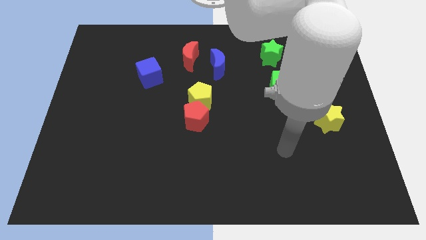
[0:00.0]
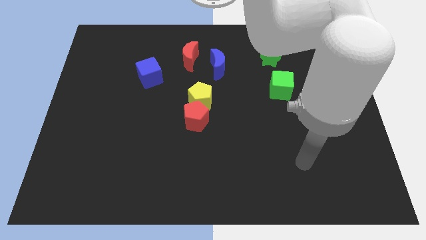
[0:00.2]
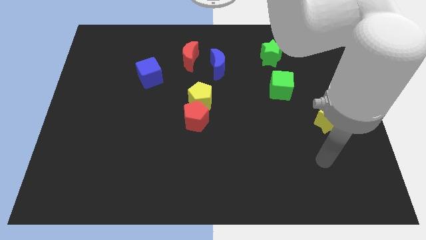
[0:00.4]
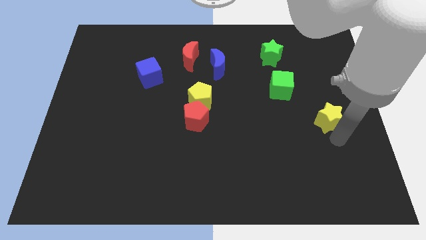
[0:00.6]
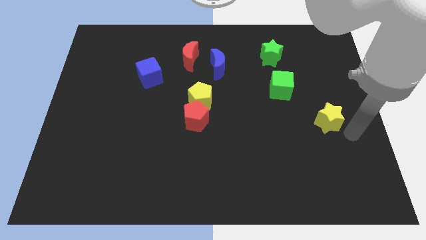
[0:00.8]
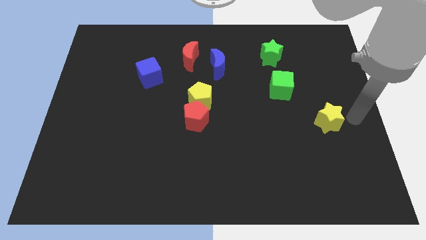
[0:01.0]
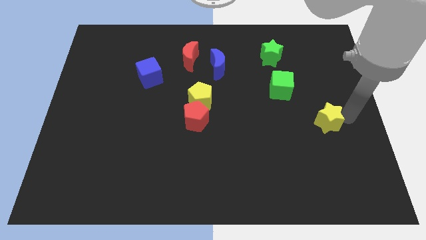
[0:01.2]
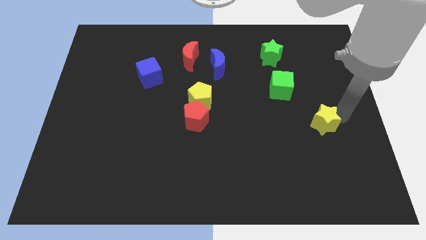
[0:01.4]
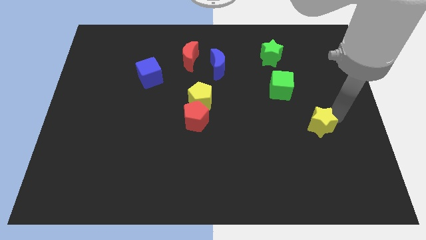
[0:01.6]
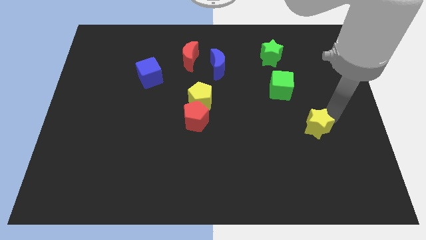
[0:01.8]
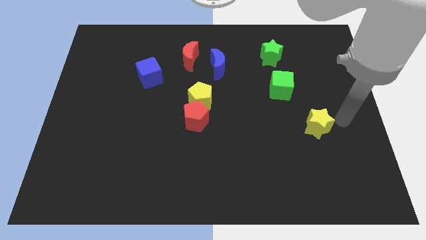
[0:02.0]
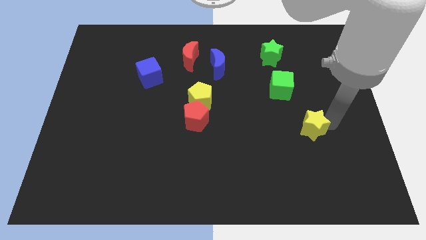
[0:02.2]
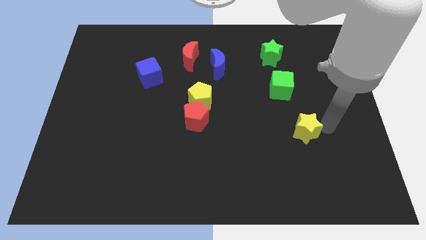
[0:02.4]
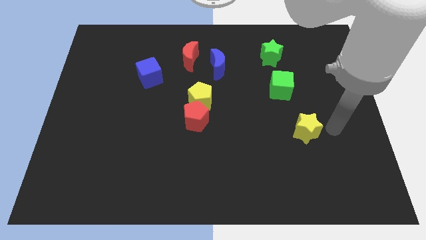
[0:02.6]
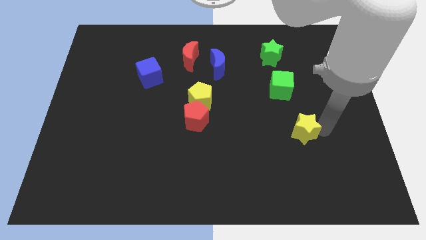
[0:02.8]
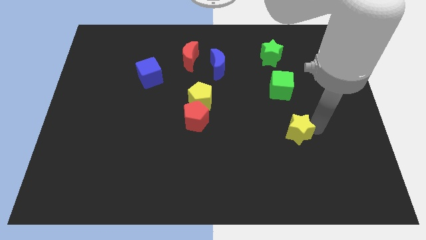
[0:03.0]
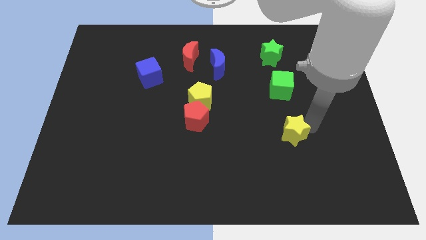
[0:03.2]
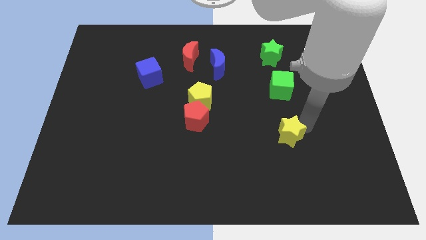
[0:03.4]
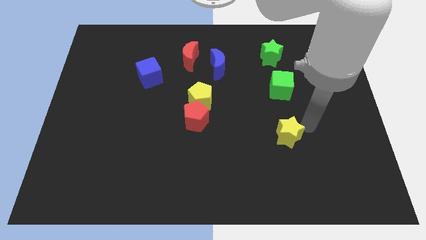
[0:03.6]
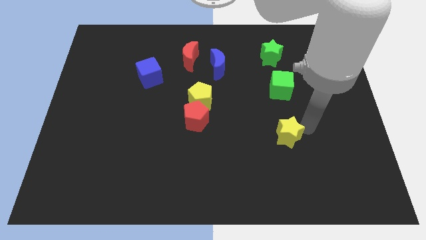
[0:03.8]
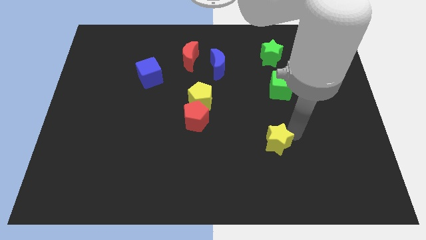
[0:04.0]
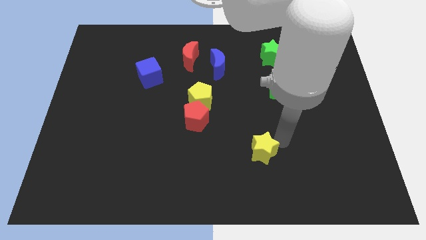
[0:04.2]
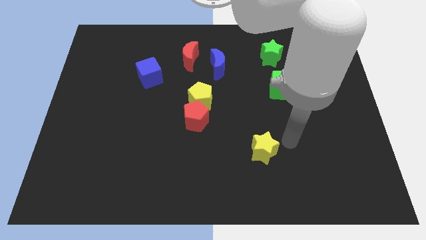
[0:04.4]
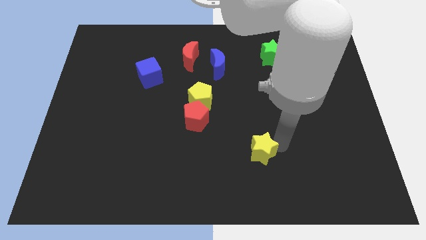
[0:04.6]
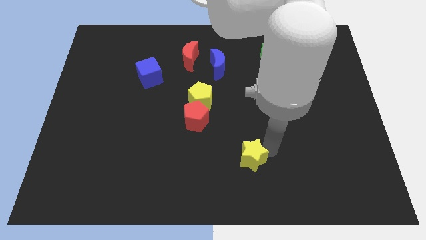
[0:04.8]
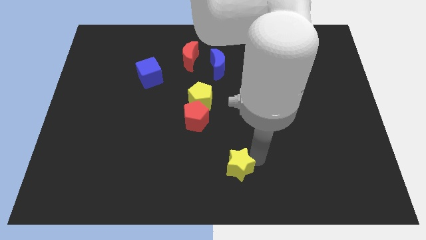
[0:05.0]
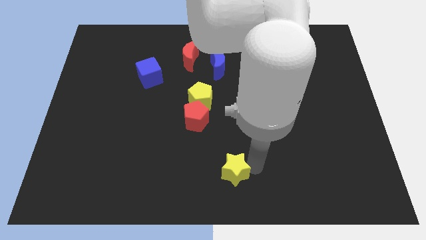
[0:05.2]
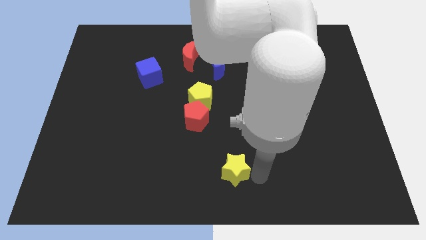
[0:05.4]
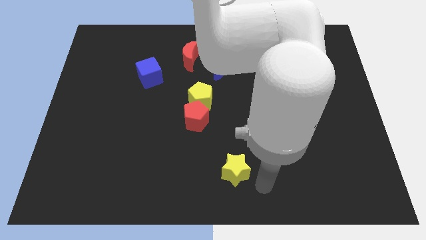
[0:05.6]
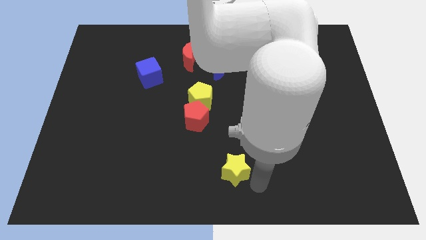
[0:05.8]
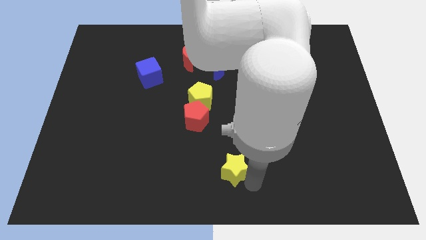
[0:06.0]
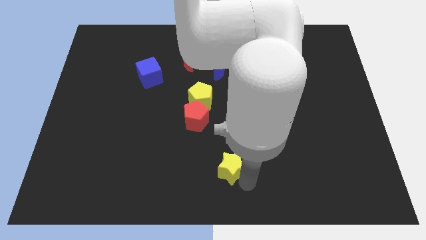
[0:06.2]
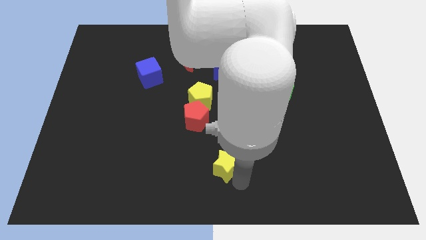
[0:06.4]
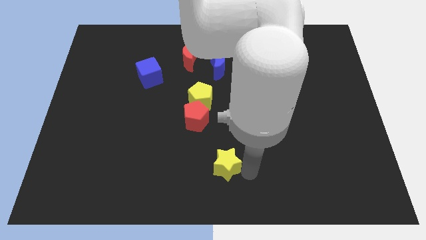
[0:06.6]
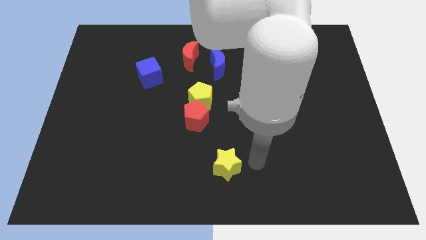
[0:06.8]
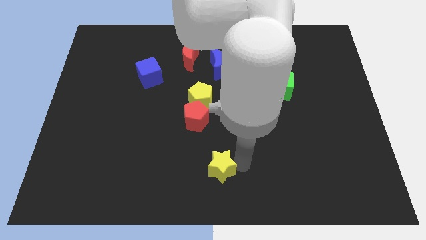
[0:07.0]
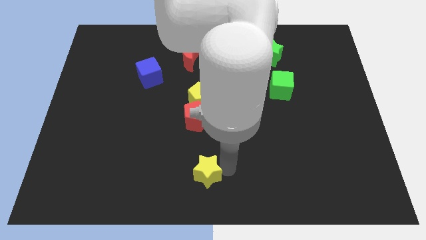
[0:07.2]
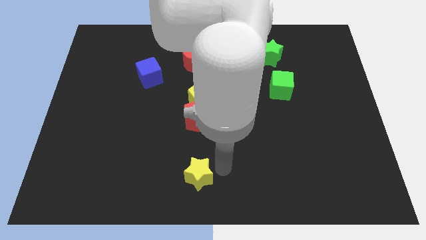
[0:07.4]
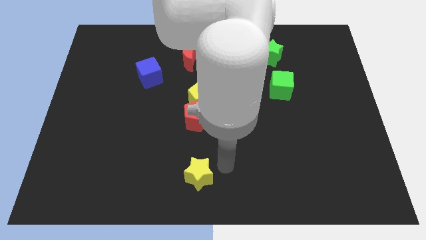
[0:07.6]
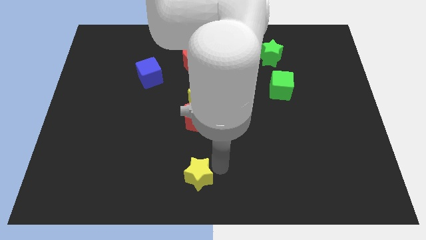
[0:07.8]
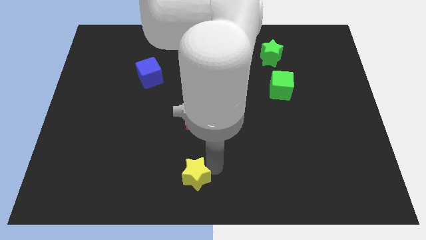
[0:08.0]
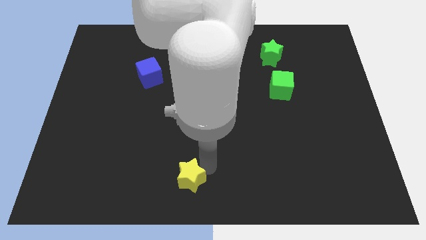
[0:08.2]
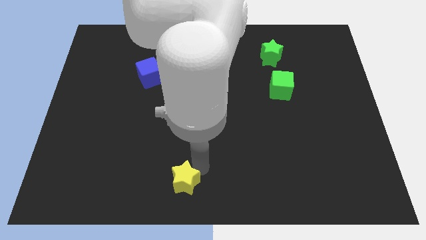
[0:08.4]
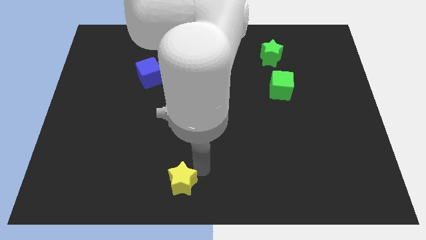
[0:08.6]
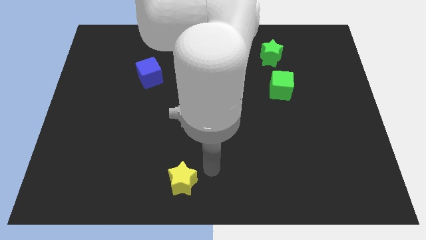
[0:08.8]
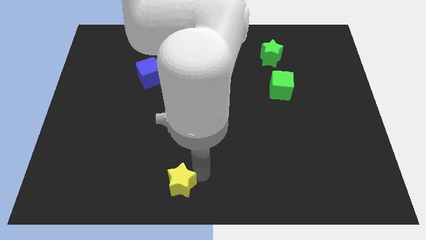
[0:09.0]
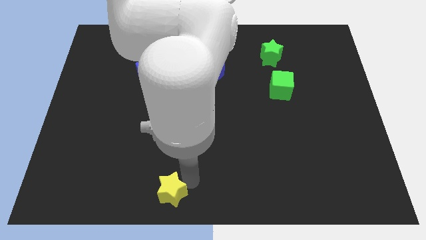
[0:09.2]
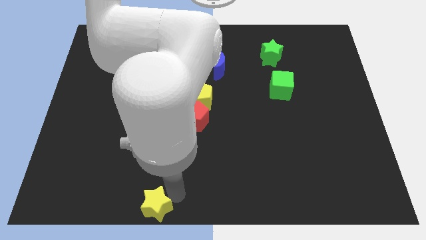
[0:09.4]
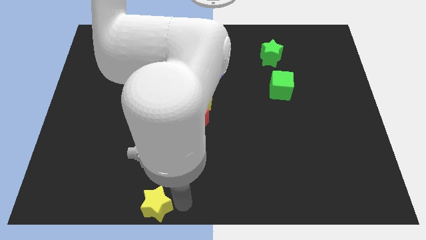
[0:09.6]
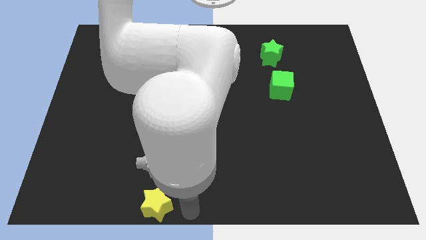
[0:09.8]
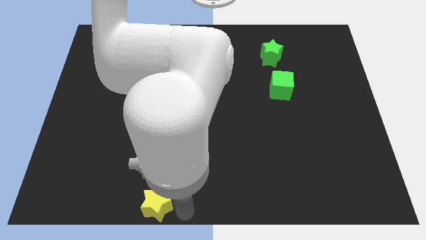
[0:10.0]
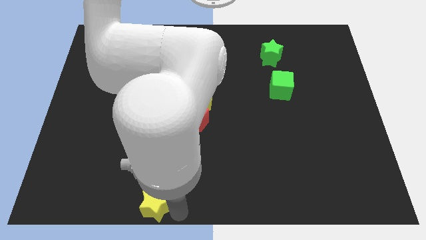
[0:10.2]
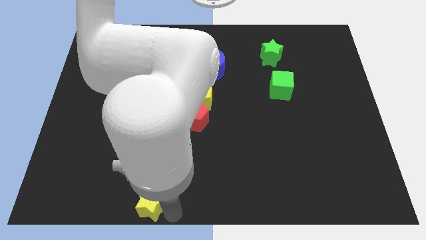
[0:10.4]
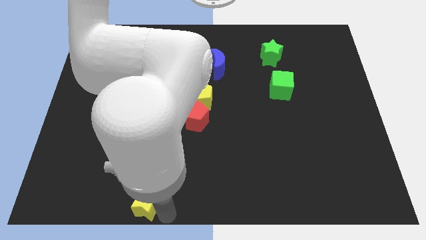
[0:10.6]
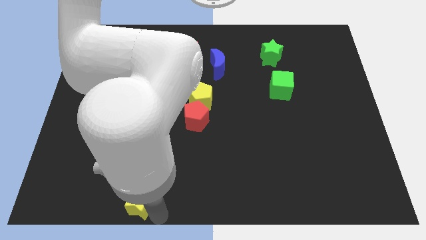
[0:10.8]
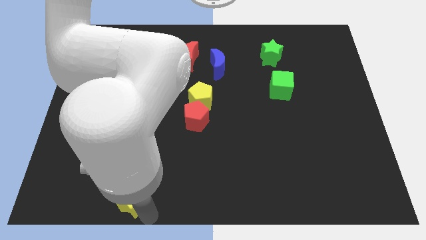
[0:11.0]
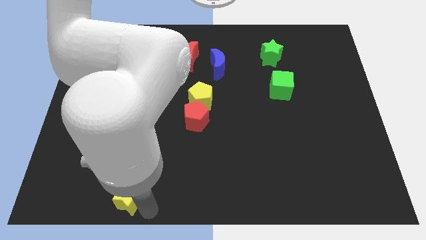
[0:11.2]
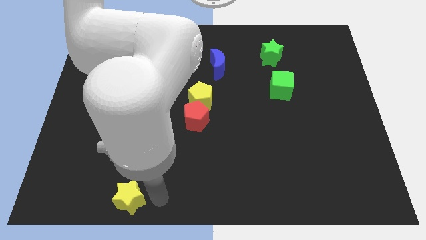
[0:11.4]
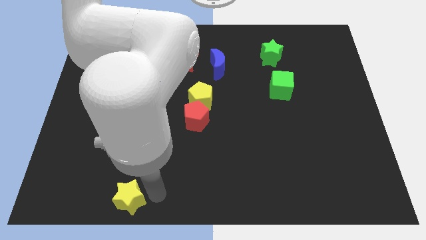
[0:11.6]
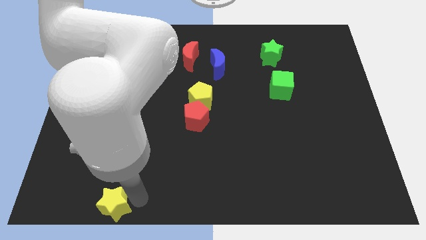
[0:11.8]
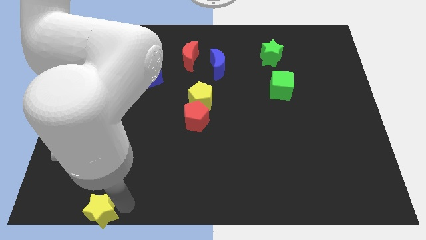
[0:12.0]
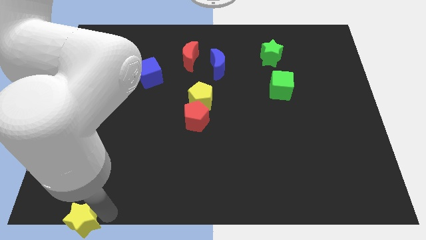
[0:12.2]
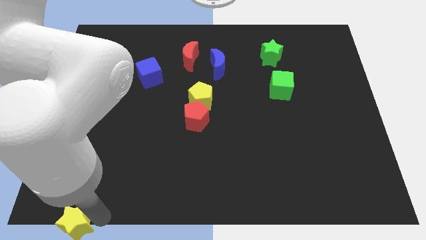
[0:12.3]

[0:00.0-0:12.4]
move the yellow star to the bottom left

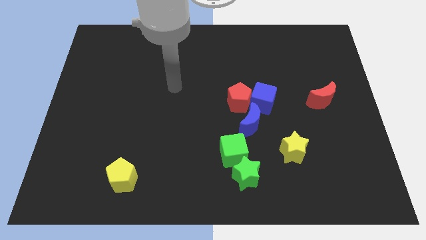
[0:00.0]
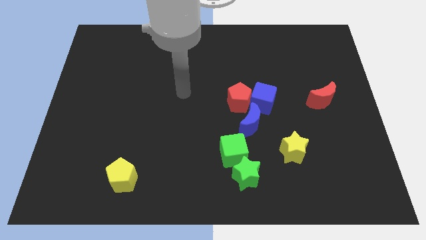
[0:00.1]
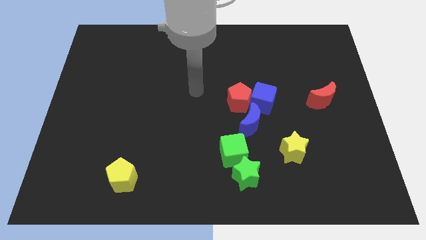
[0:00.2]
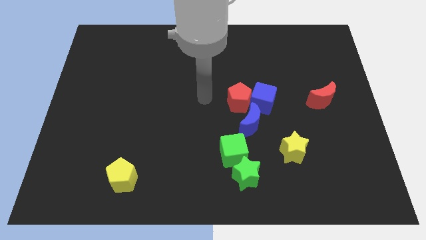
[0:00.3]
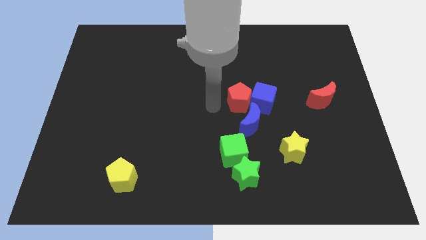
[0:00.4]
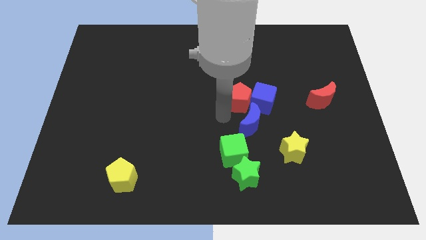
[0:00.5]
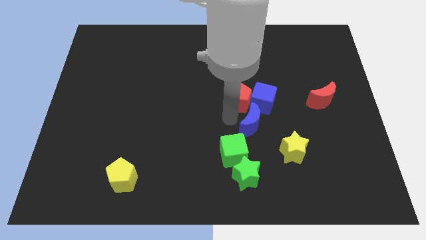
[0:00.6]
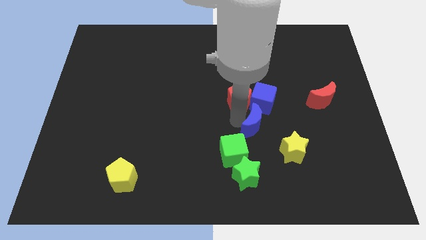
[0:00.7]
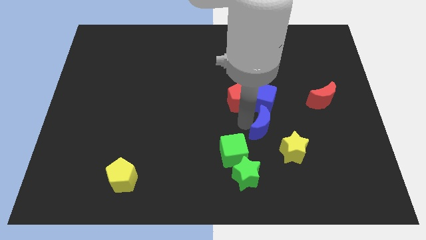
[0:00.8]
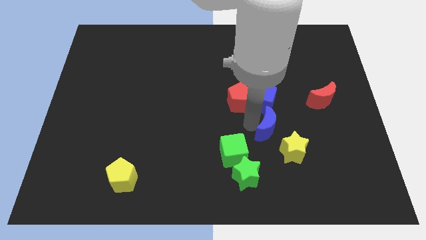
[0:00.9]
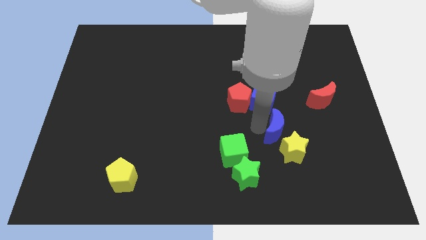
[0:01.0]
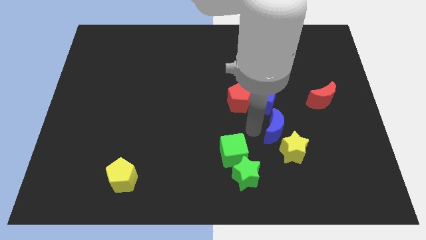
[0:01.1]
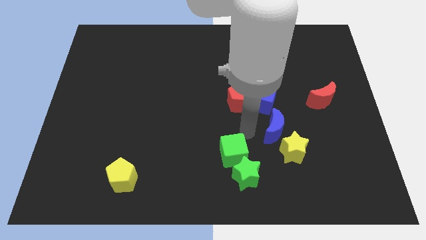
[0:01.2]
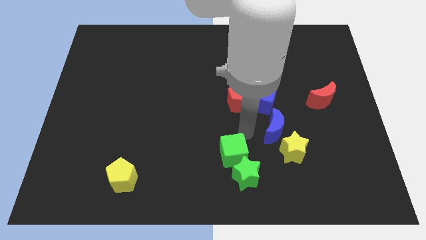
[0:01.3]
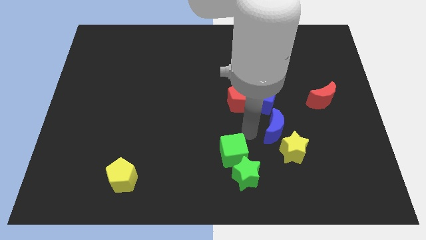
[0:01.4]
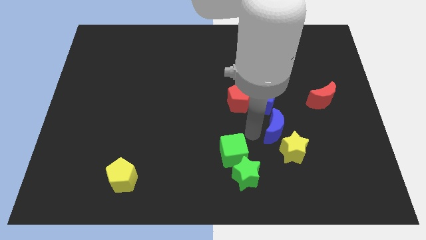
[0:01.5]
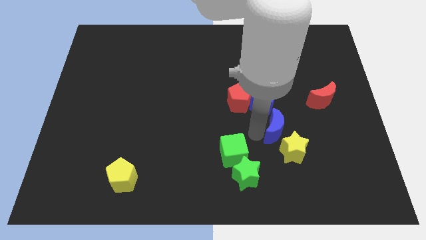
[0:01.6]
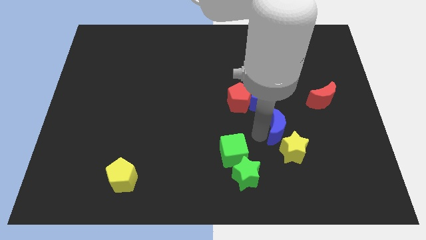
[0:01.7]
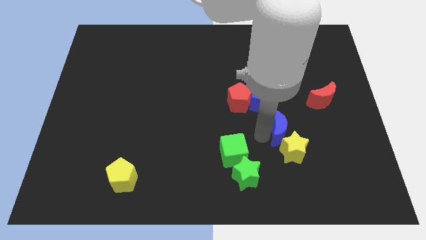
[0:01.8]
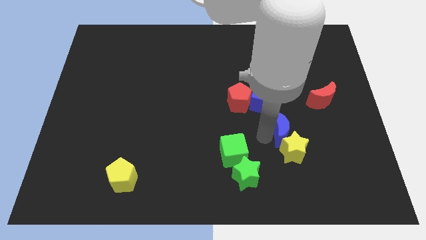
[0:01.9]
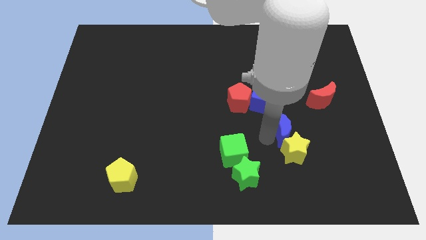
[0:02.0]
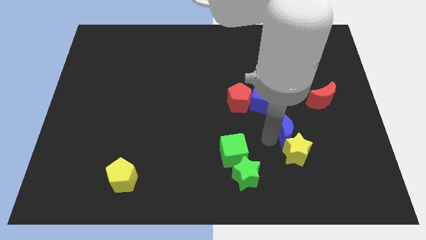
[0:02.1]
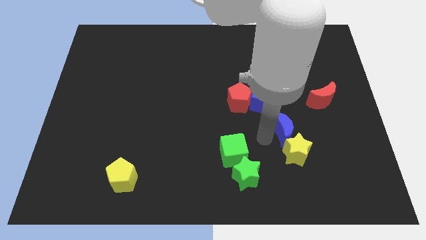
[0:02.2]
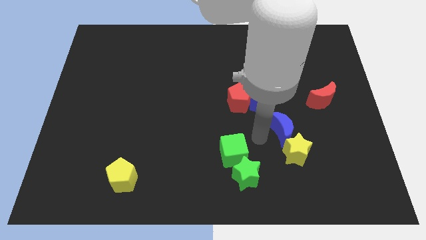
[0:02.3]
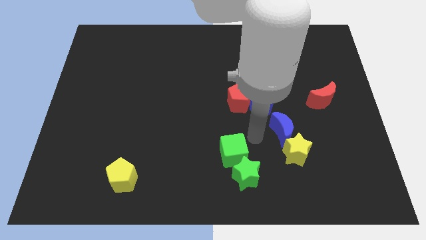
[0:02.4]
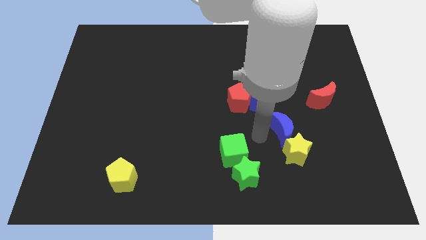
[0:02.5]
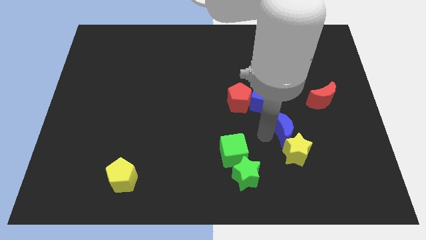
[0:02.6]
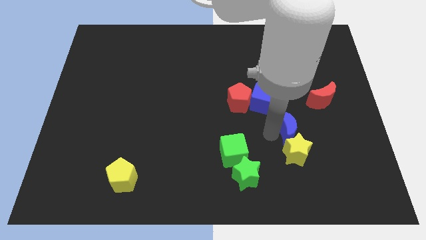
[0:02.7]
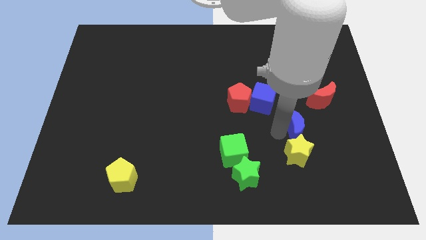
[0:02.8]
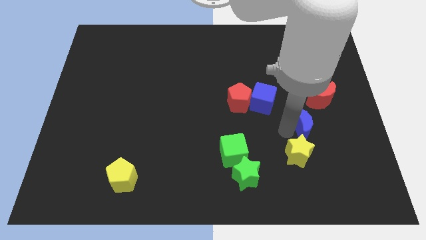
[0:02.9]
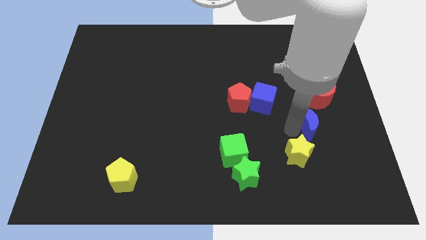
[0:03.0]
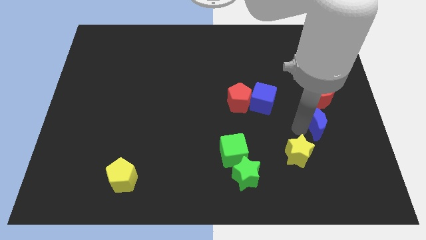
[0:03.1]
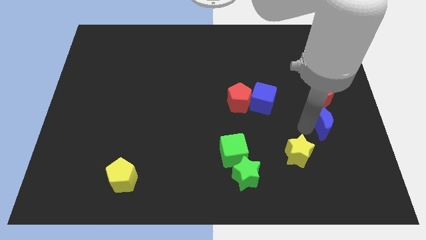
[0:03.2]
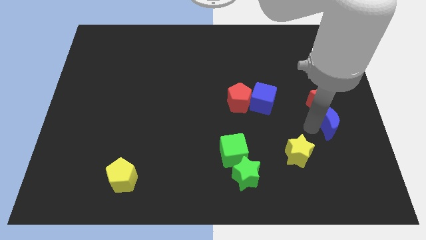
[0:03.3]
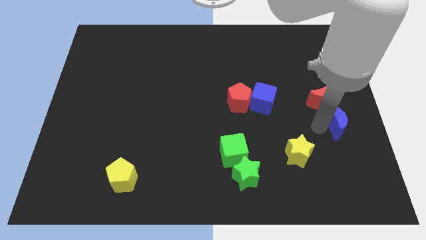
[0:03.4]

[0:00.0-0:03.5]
push the blue moon to the center right
